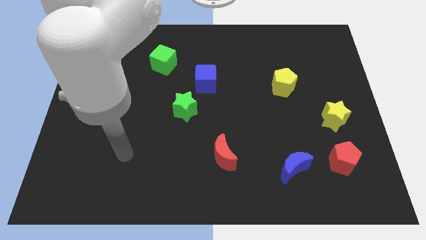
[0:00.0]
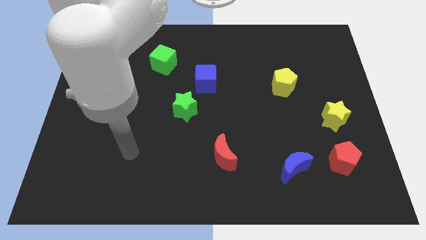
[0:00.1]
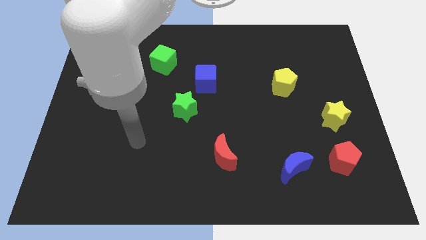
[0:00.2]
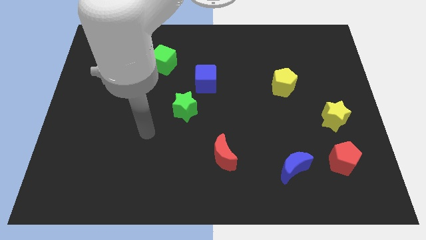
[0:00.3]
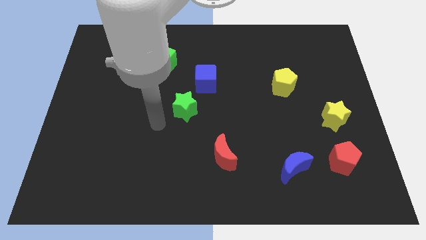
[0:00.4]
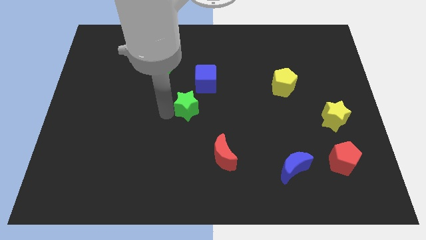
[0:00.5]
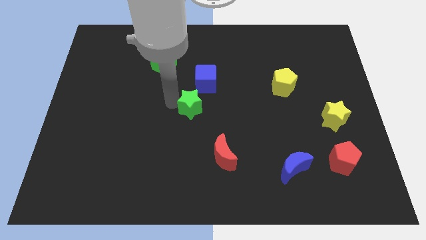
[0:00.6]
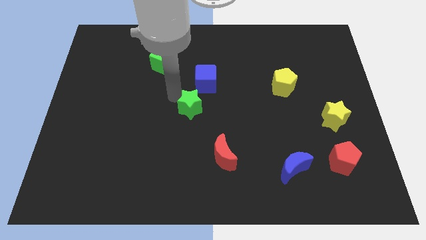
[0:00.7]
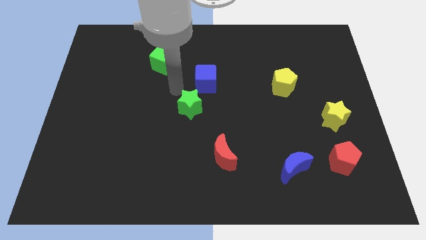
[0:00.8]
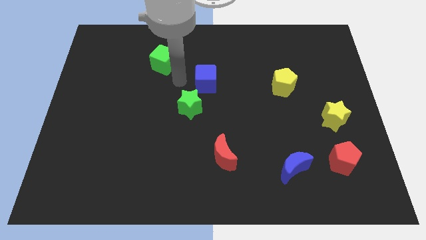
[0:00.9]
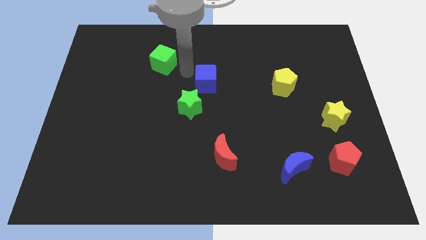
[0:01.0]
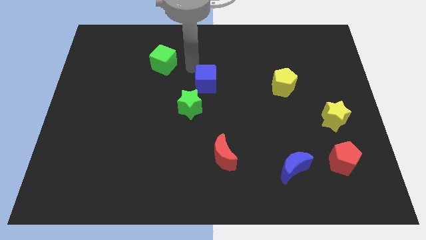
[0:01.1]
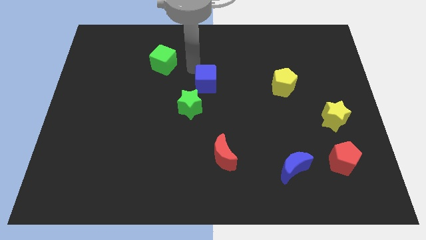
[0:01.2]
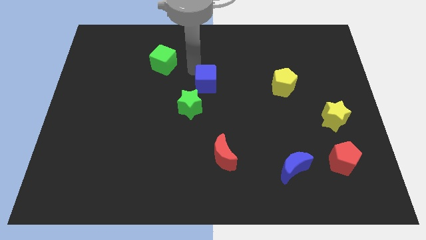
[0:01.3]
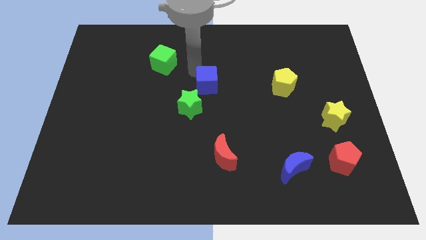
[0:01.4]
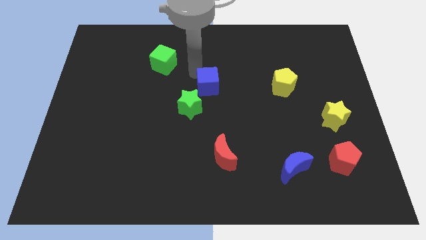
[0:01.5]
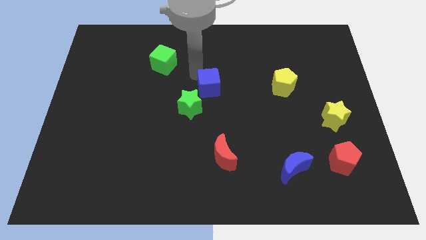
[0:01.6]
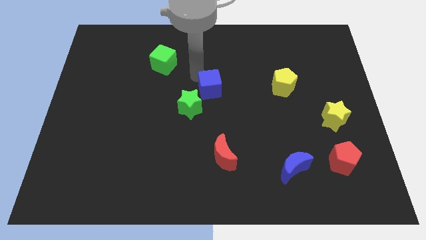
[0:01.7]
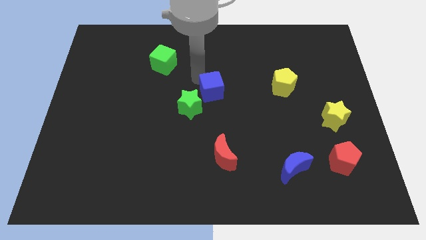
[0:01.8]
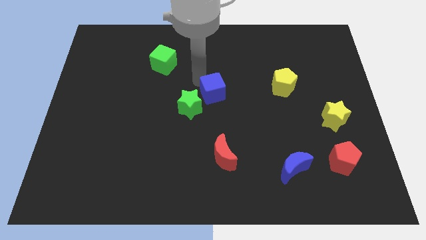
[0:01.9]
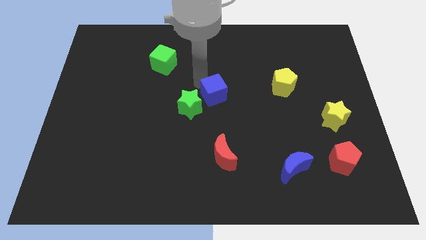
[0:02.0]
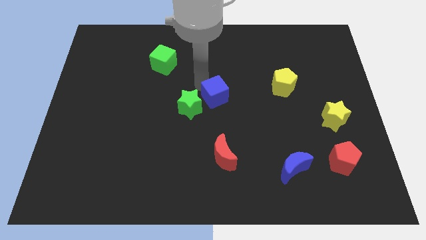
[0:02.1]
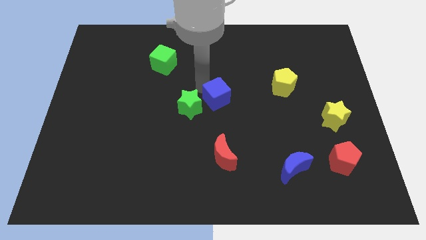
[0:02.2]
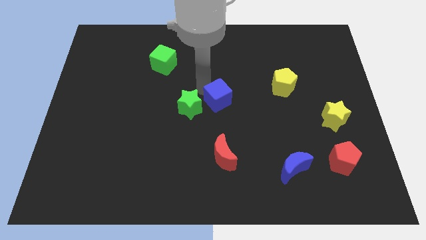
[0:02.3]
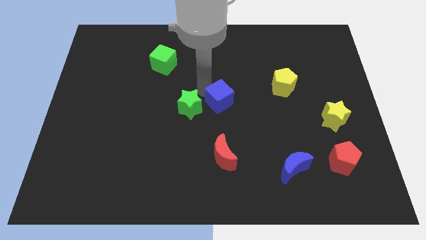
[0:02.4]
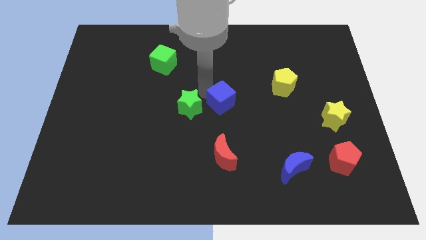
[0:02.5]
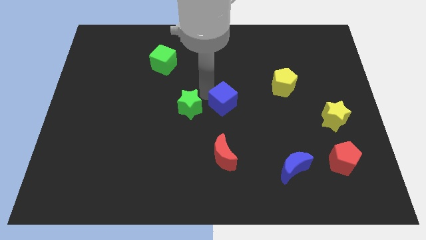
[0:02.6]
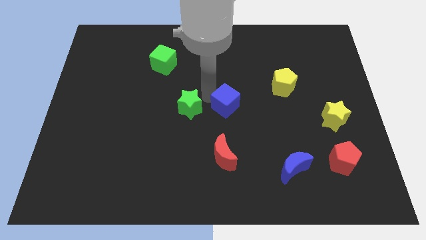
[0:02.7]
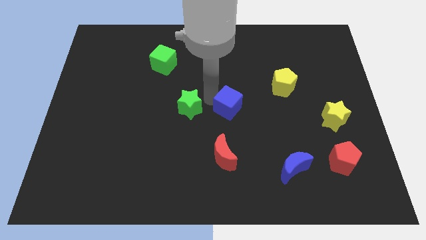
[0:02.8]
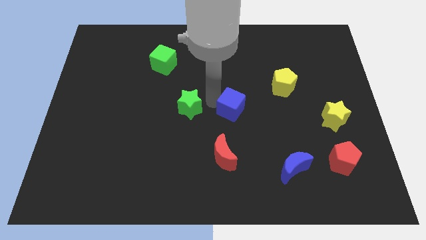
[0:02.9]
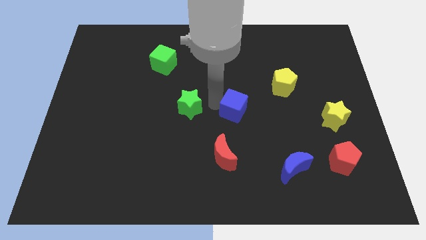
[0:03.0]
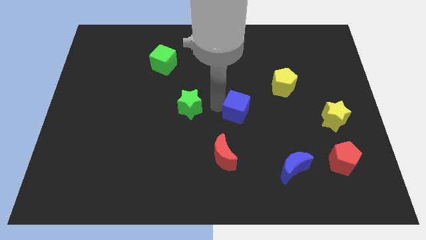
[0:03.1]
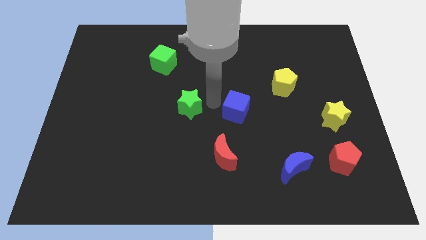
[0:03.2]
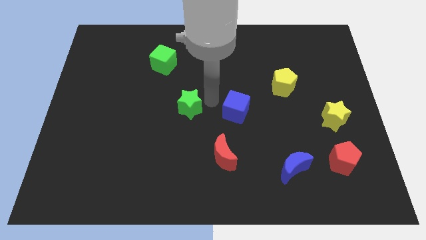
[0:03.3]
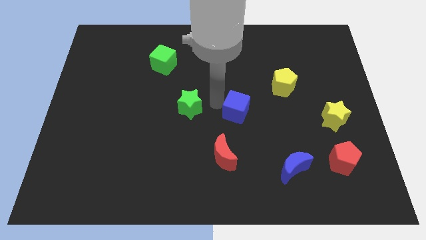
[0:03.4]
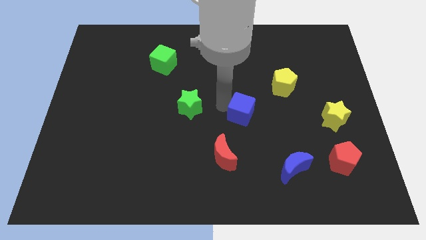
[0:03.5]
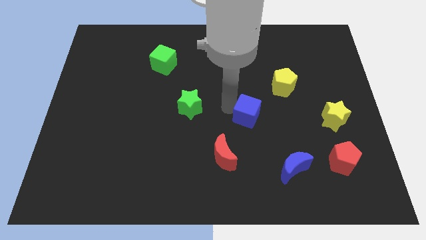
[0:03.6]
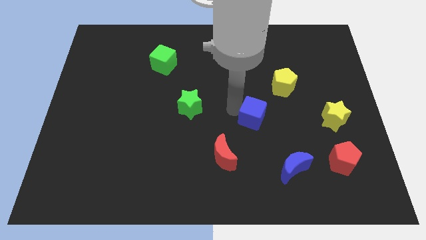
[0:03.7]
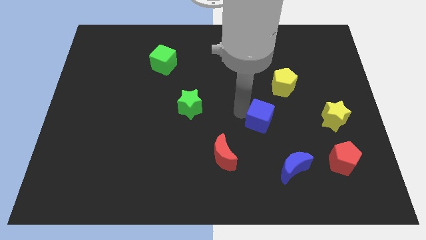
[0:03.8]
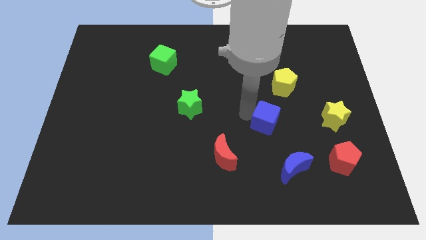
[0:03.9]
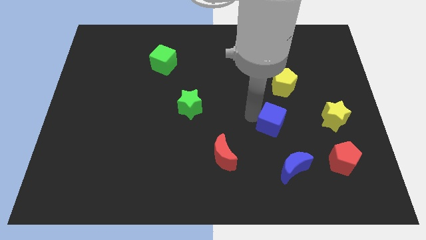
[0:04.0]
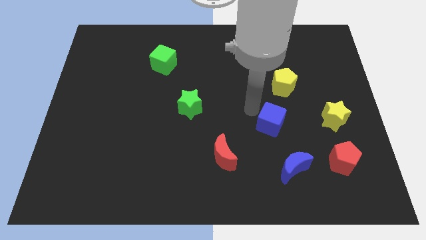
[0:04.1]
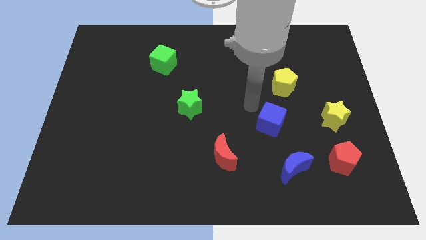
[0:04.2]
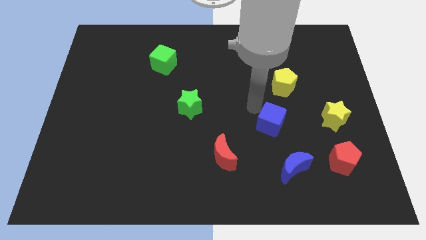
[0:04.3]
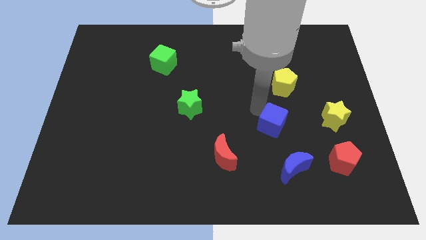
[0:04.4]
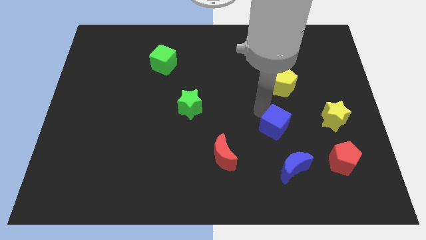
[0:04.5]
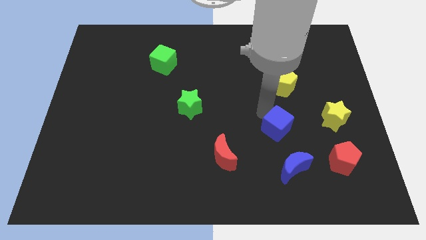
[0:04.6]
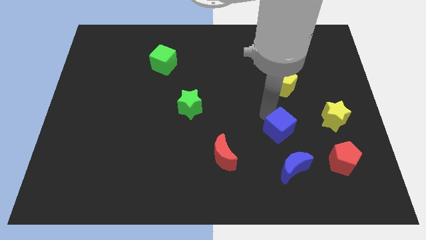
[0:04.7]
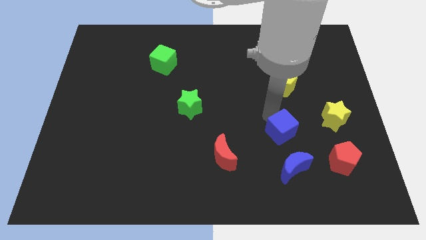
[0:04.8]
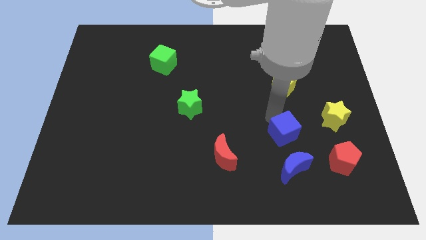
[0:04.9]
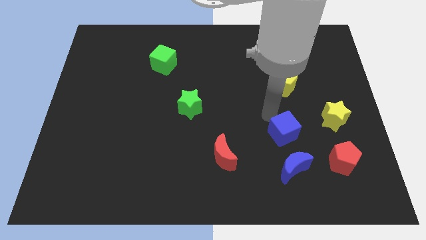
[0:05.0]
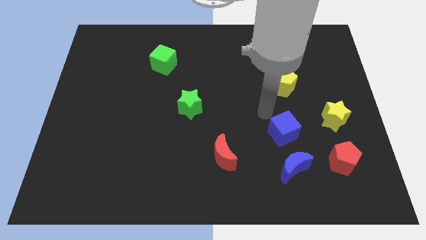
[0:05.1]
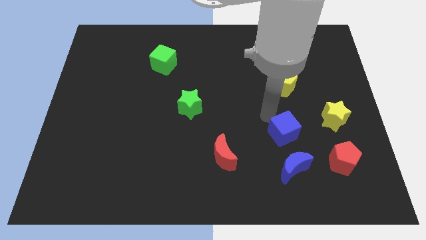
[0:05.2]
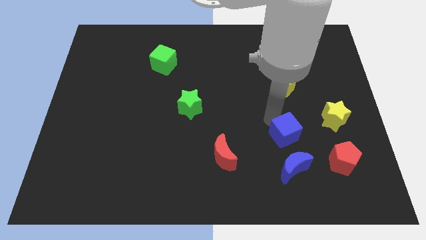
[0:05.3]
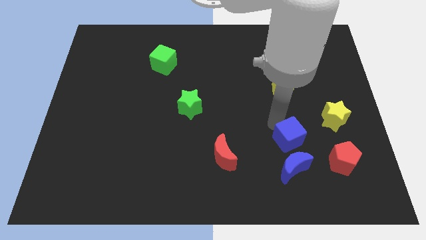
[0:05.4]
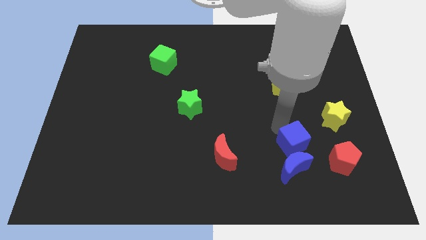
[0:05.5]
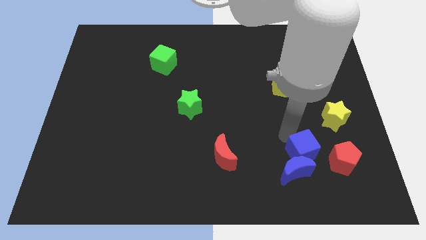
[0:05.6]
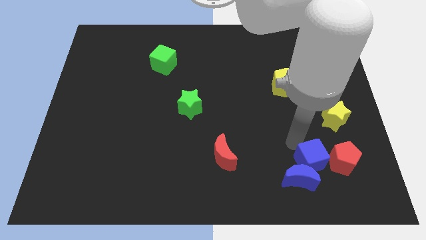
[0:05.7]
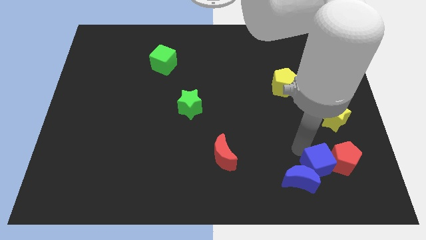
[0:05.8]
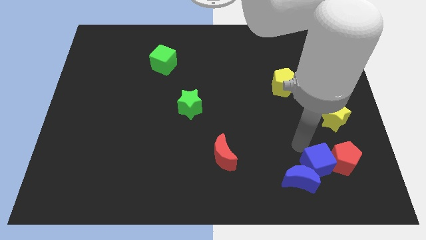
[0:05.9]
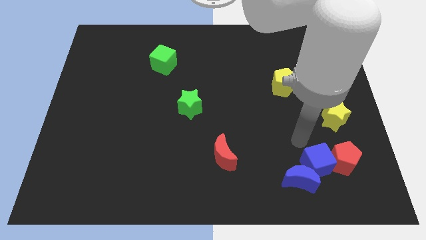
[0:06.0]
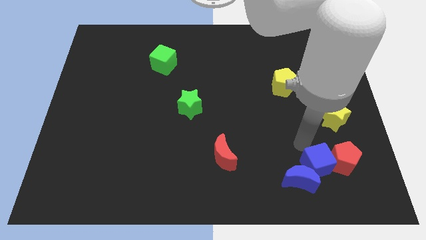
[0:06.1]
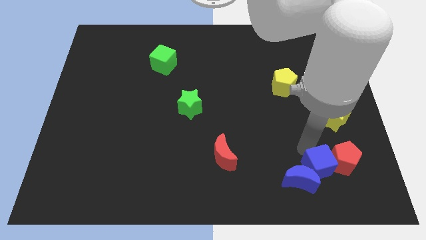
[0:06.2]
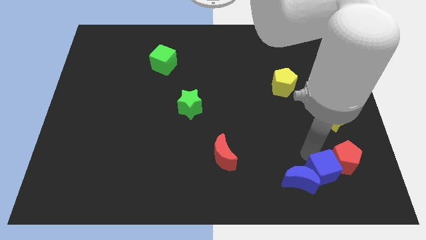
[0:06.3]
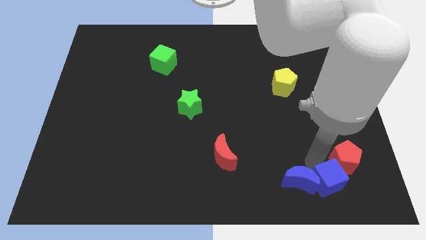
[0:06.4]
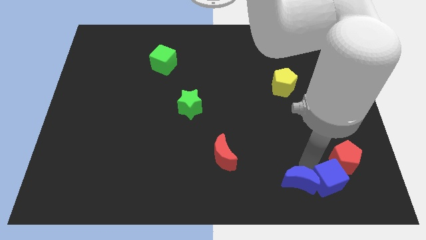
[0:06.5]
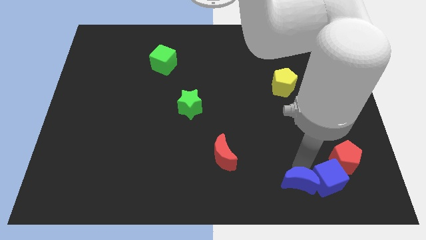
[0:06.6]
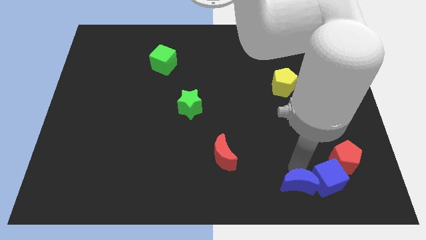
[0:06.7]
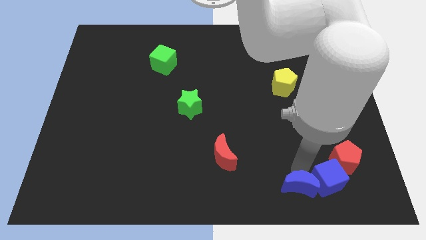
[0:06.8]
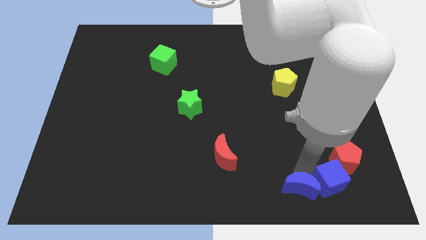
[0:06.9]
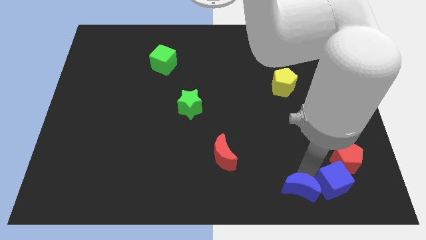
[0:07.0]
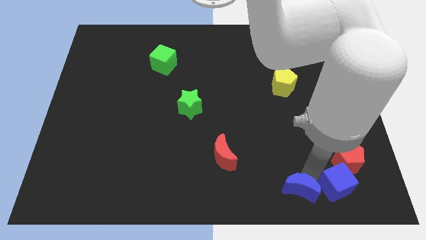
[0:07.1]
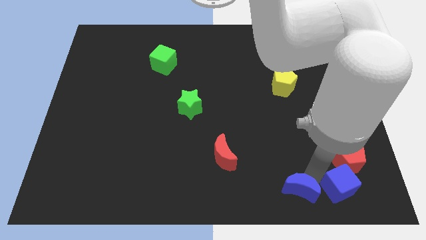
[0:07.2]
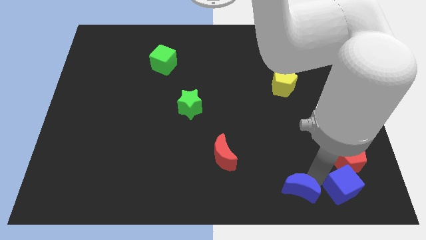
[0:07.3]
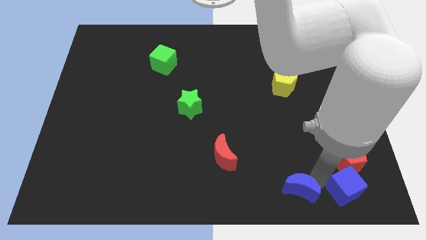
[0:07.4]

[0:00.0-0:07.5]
put the blue cube to the bottom right
